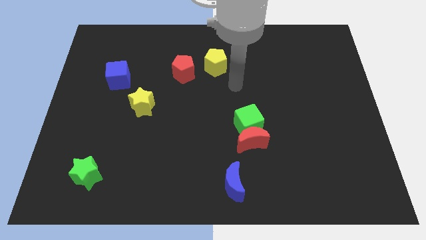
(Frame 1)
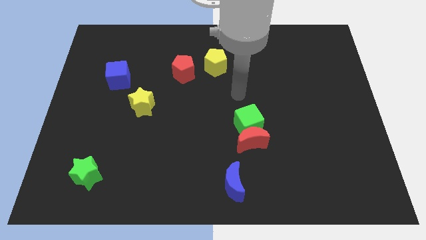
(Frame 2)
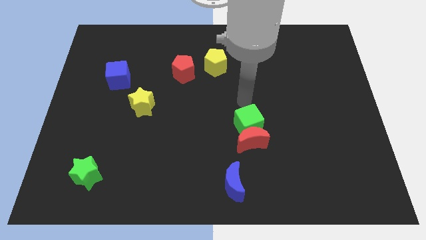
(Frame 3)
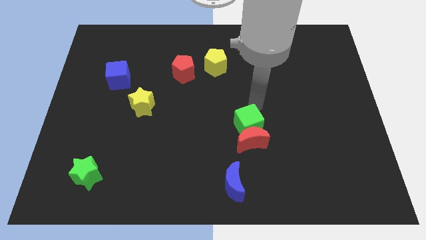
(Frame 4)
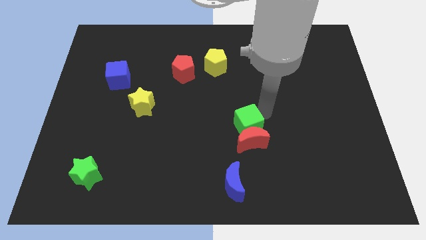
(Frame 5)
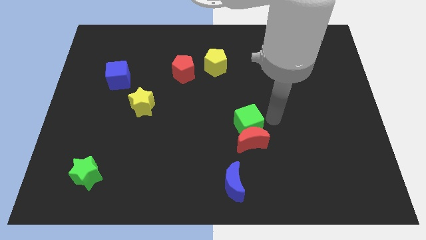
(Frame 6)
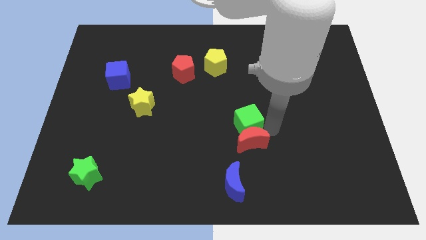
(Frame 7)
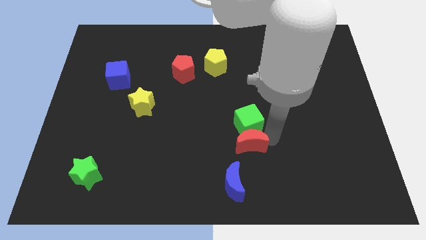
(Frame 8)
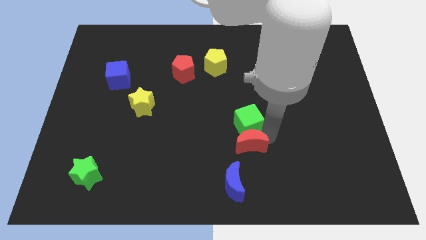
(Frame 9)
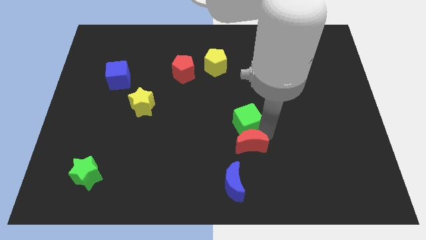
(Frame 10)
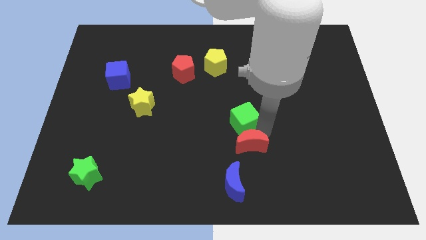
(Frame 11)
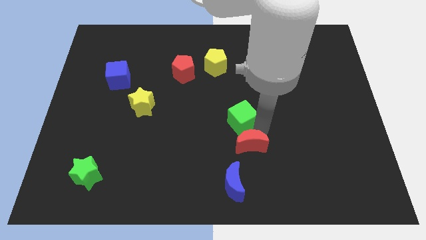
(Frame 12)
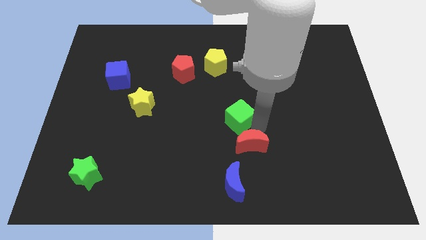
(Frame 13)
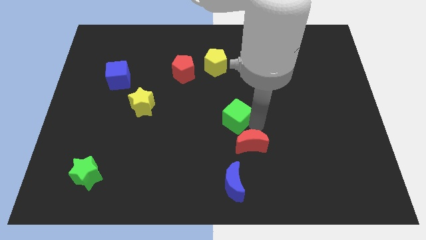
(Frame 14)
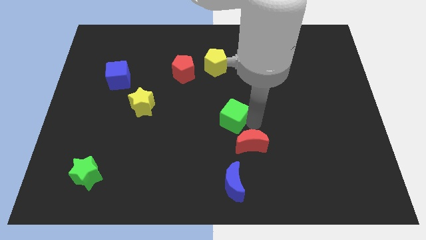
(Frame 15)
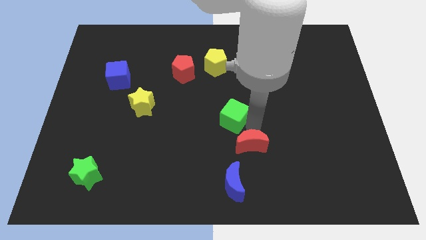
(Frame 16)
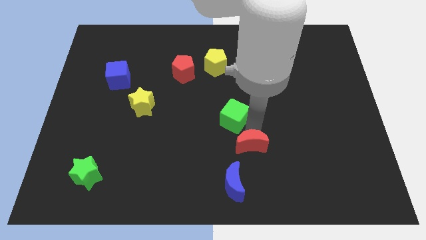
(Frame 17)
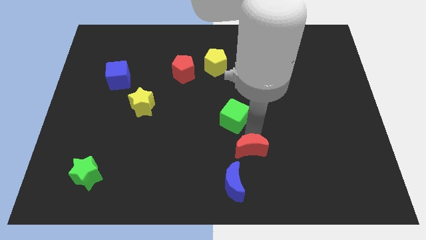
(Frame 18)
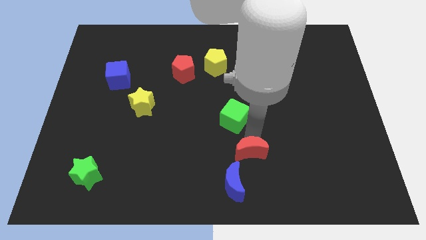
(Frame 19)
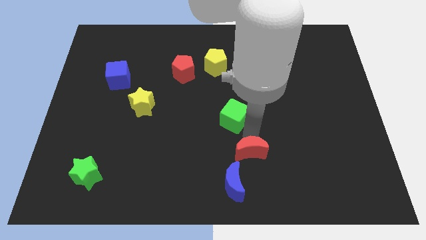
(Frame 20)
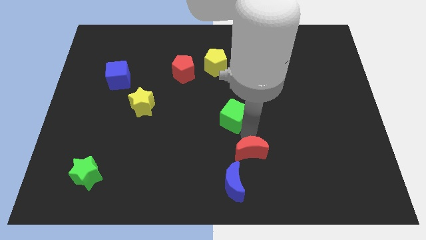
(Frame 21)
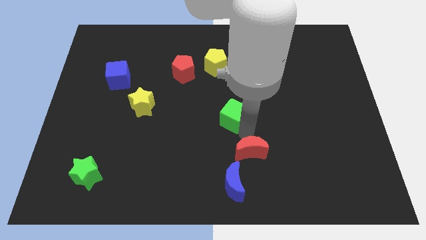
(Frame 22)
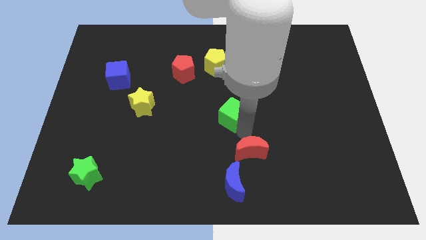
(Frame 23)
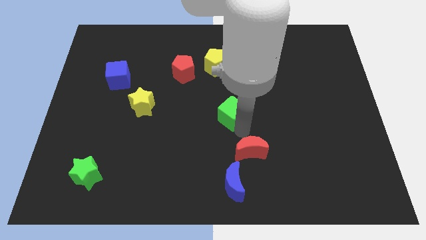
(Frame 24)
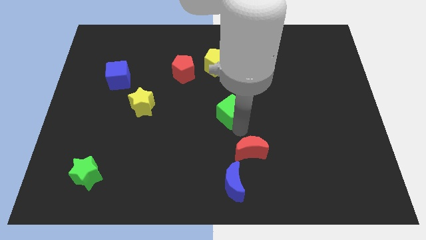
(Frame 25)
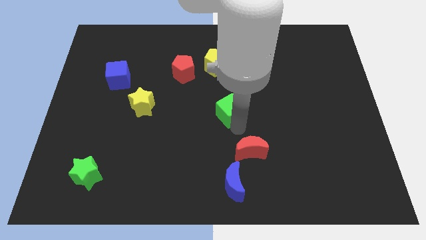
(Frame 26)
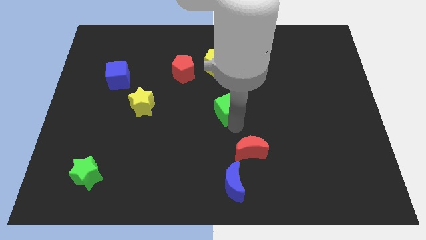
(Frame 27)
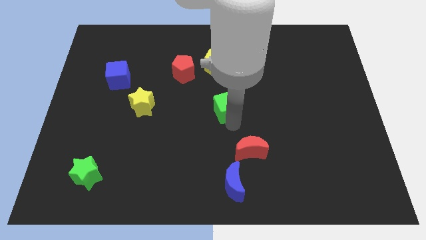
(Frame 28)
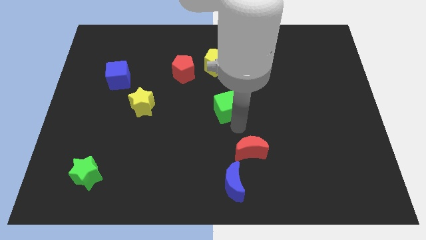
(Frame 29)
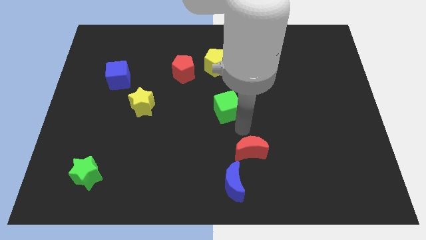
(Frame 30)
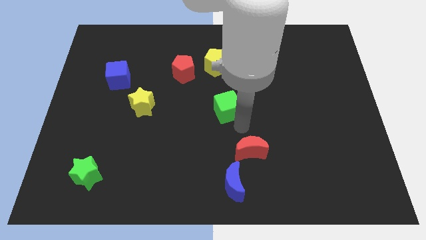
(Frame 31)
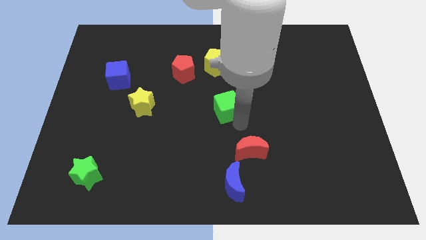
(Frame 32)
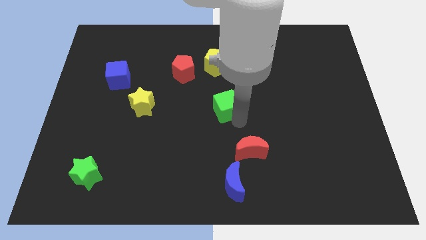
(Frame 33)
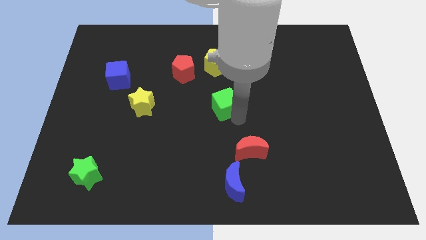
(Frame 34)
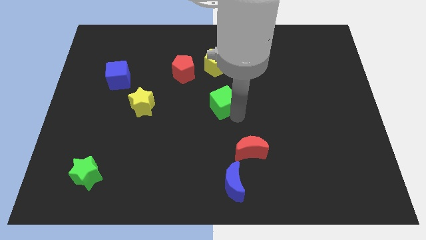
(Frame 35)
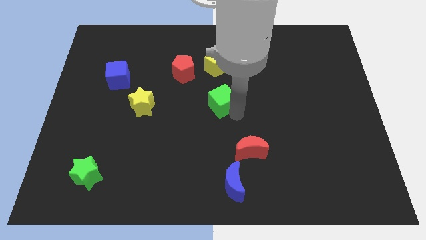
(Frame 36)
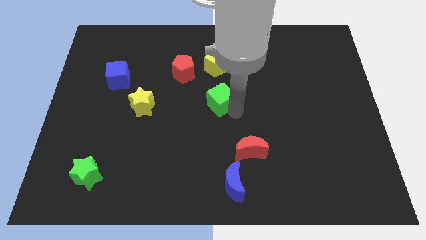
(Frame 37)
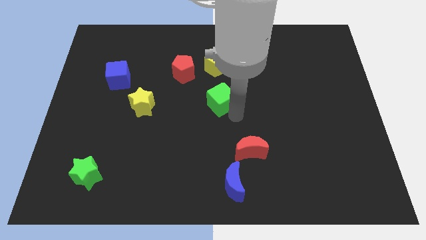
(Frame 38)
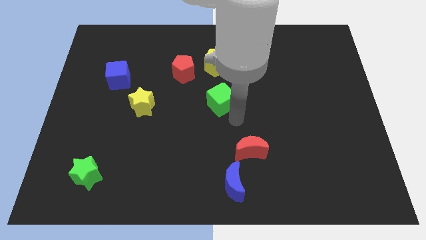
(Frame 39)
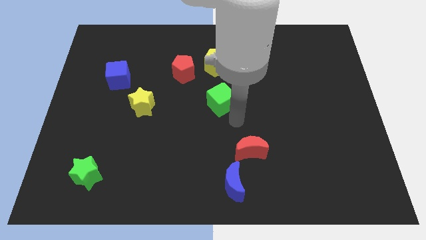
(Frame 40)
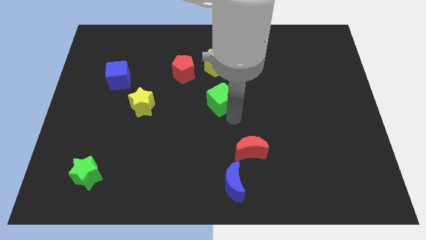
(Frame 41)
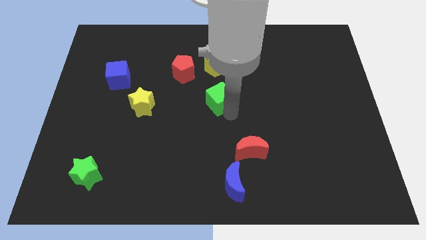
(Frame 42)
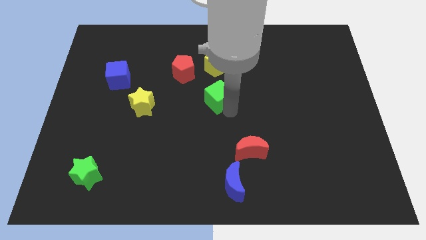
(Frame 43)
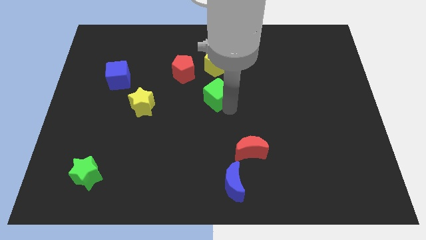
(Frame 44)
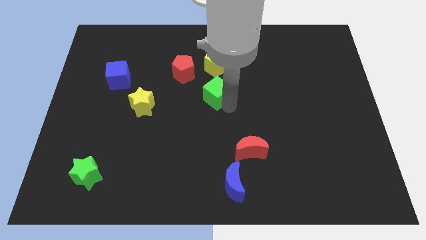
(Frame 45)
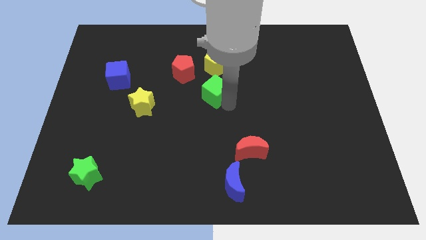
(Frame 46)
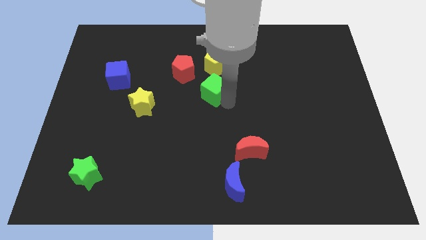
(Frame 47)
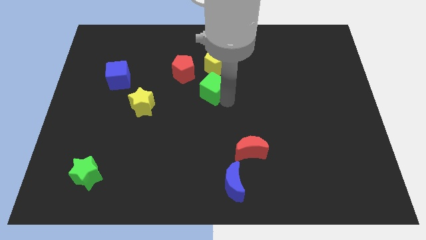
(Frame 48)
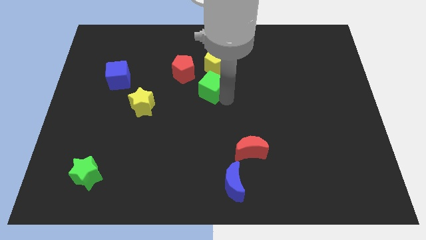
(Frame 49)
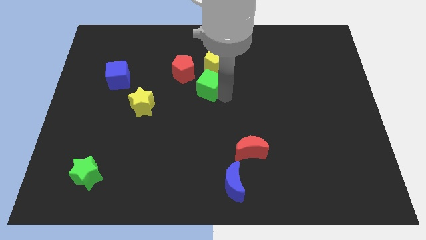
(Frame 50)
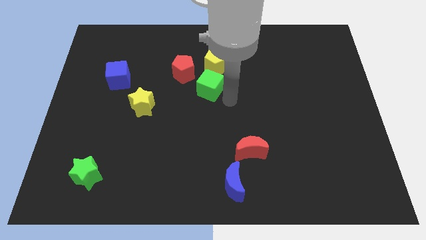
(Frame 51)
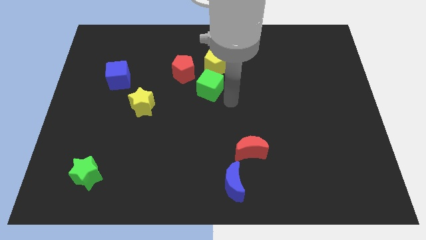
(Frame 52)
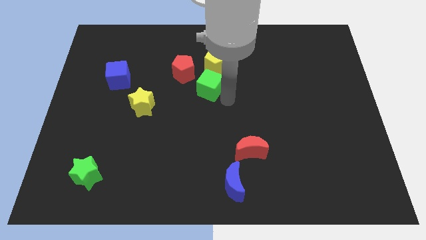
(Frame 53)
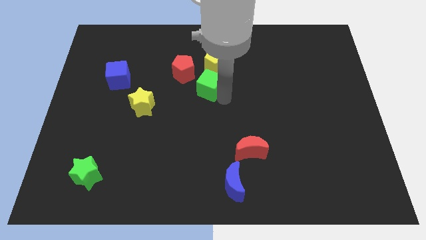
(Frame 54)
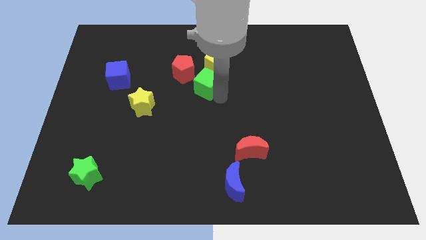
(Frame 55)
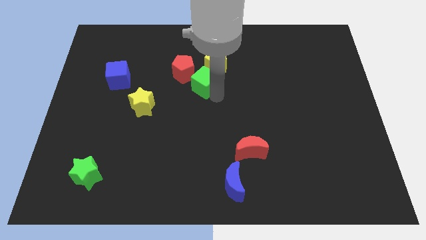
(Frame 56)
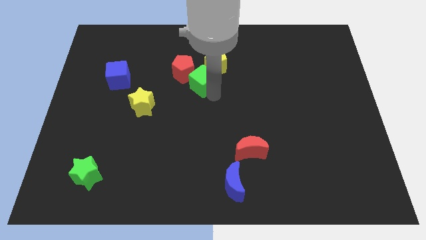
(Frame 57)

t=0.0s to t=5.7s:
put the green cube next to the red pentagon

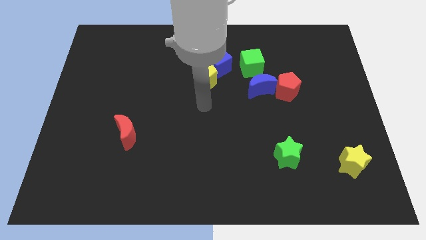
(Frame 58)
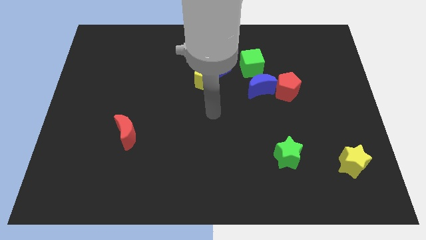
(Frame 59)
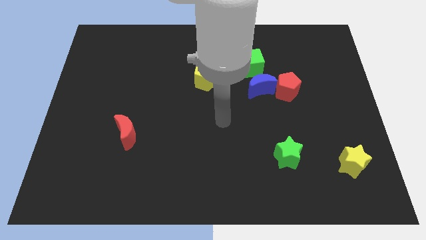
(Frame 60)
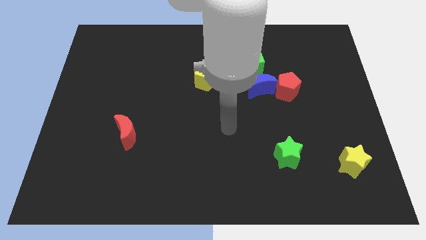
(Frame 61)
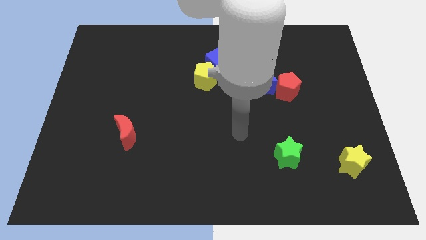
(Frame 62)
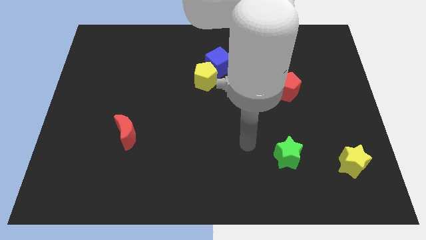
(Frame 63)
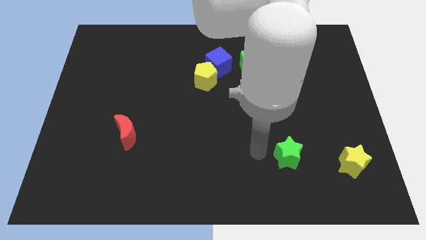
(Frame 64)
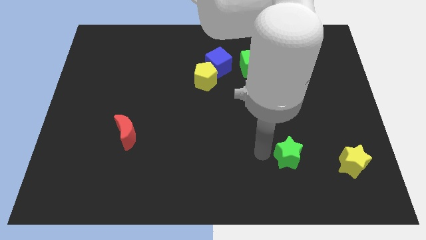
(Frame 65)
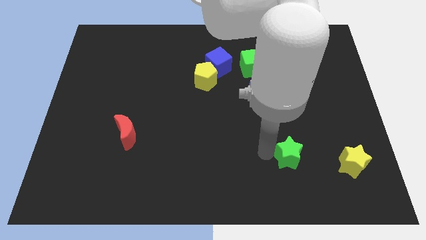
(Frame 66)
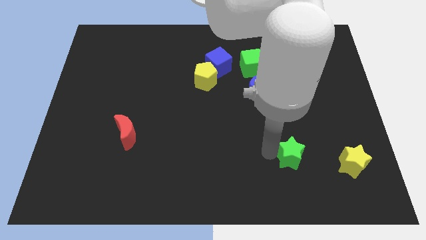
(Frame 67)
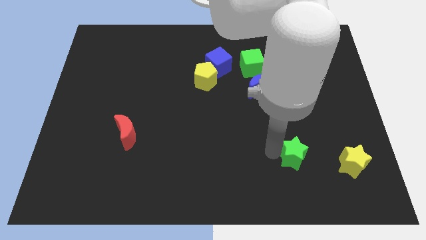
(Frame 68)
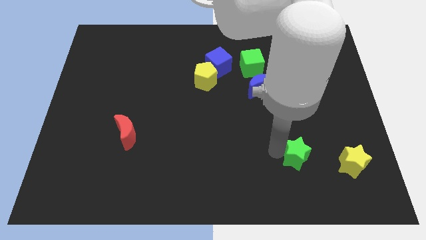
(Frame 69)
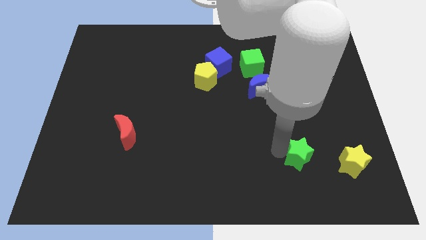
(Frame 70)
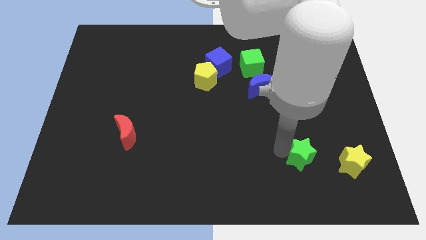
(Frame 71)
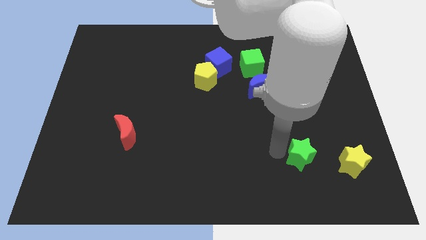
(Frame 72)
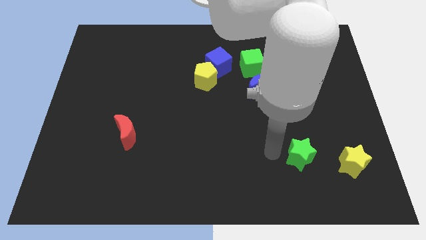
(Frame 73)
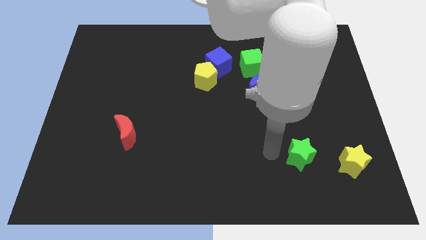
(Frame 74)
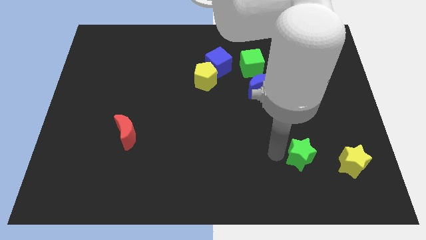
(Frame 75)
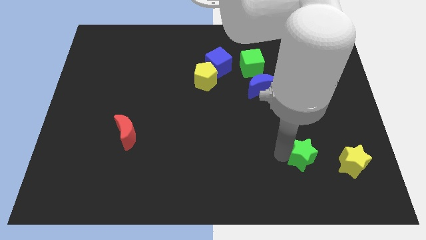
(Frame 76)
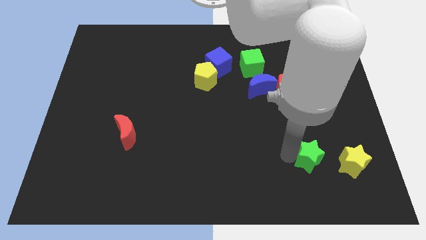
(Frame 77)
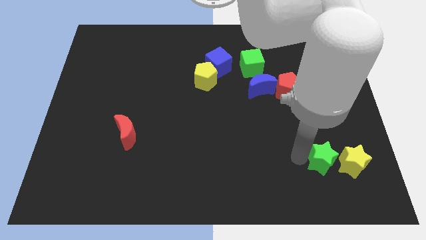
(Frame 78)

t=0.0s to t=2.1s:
slide the green star close to the yellow star
